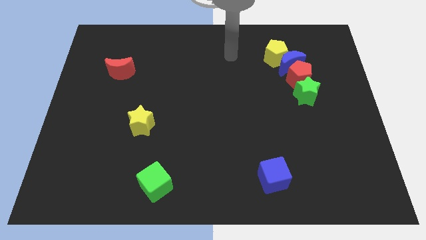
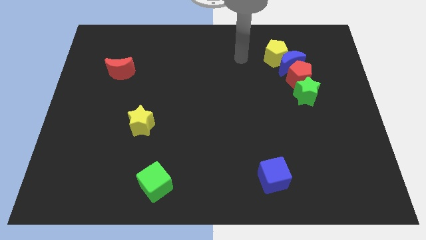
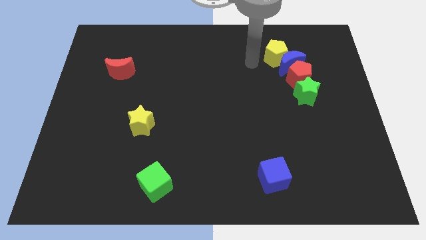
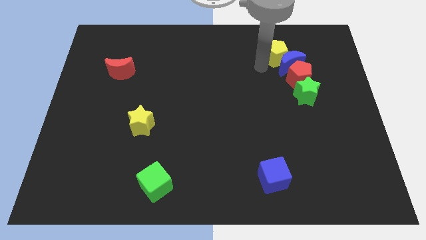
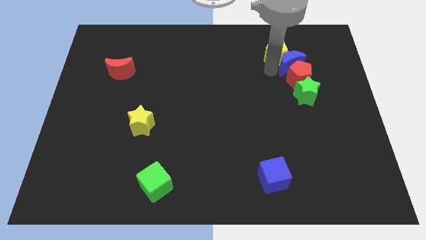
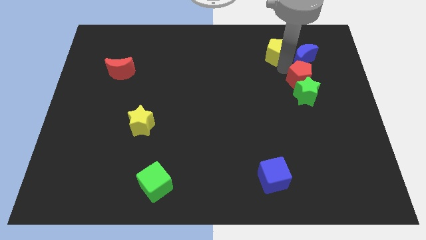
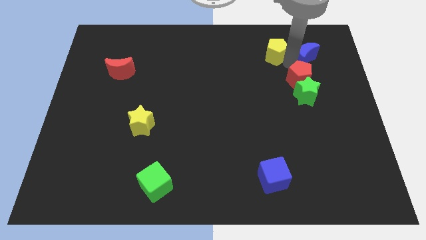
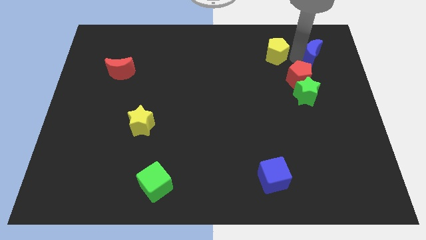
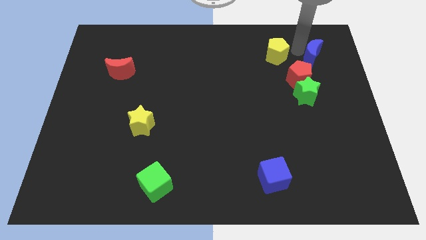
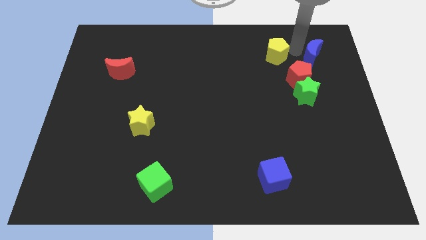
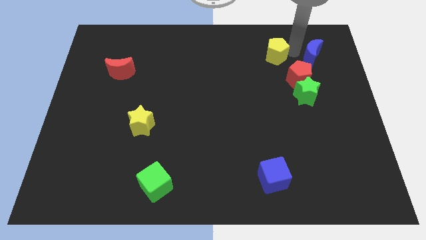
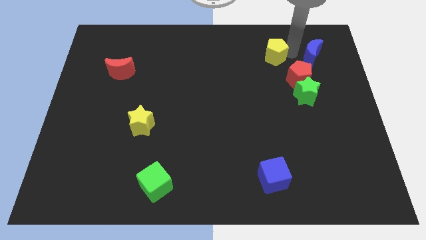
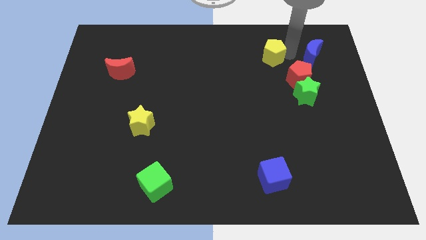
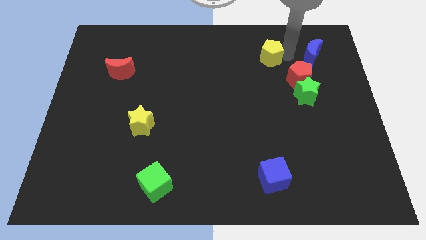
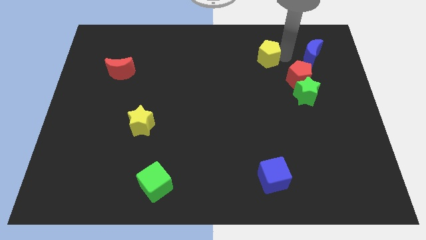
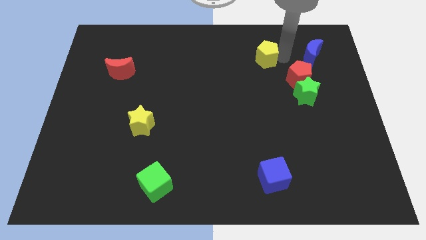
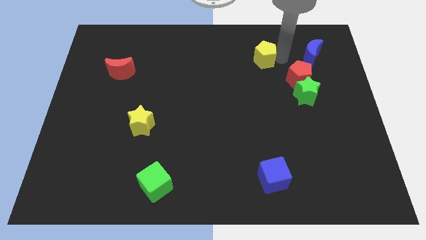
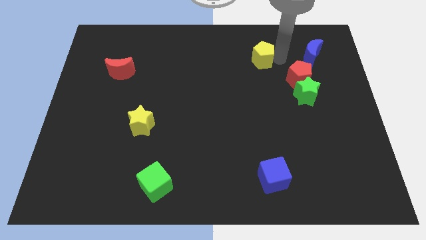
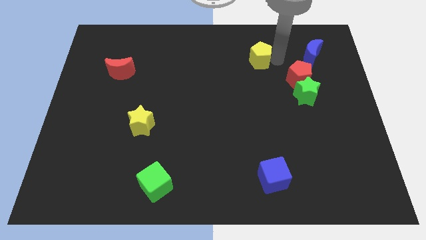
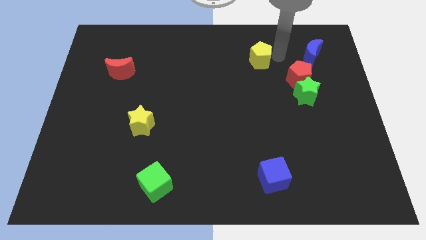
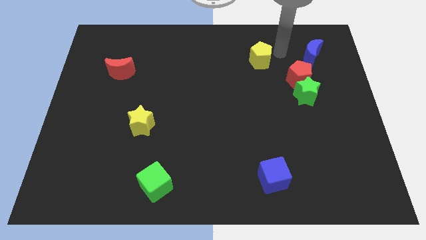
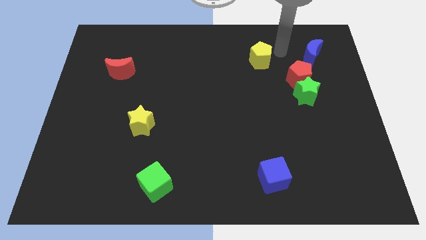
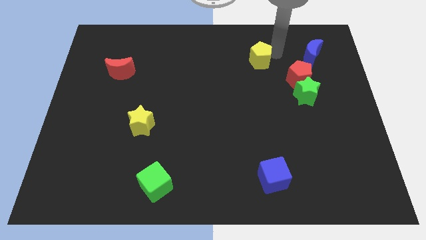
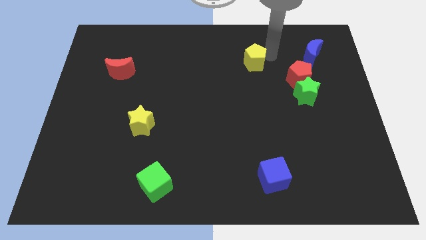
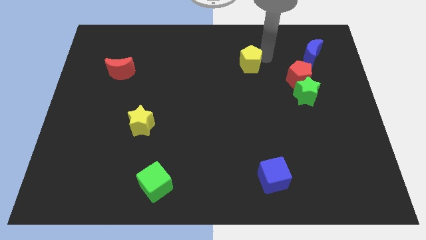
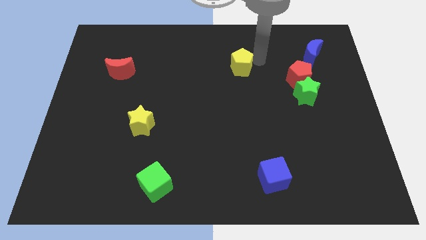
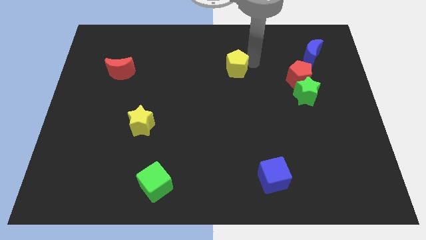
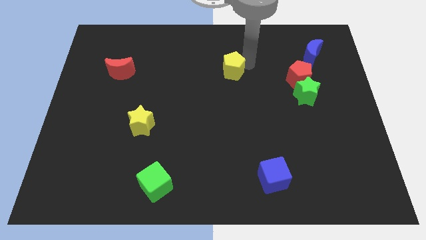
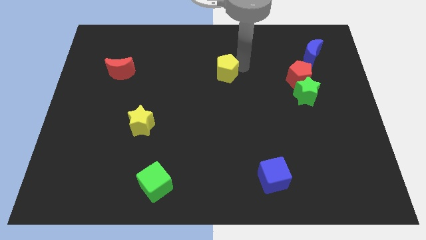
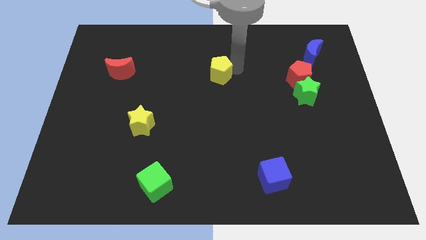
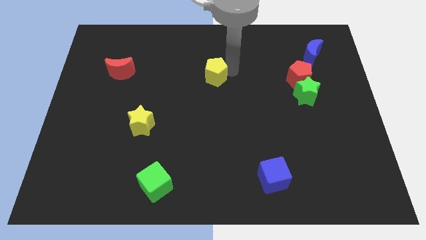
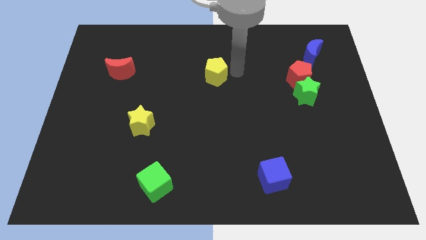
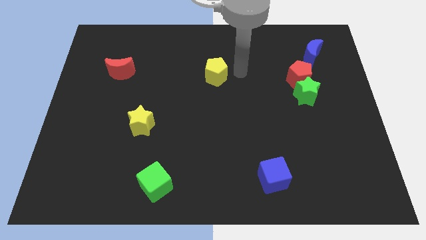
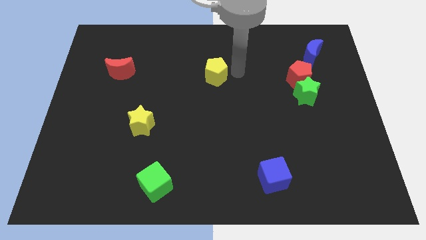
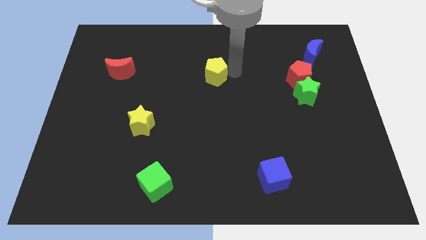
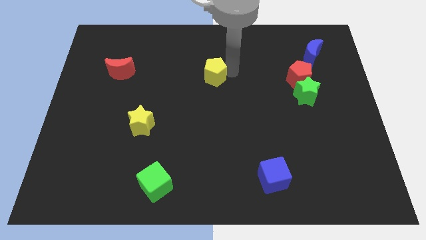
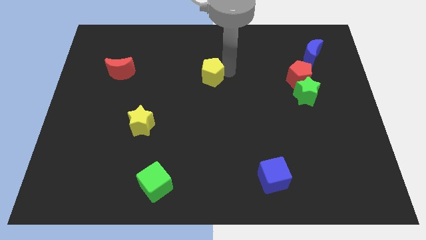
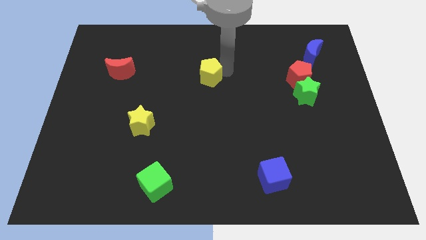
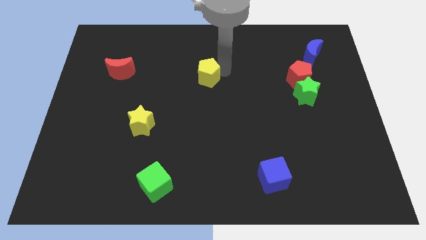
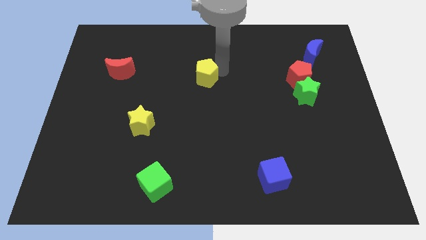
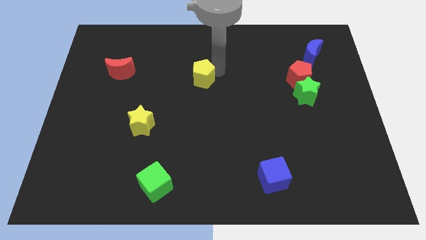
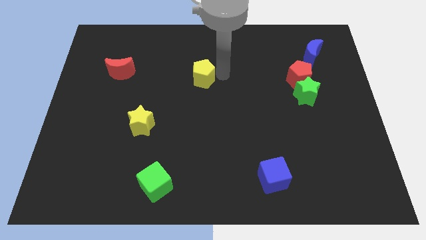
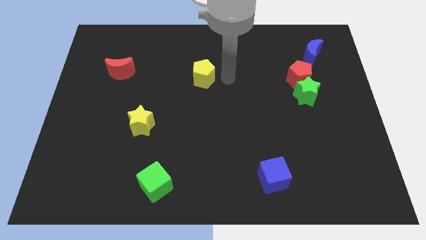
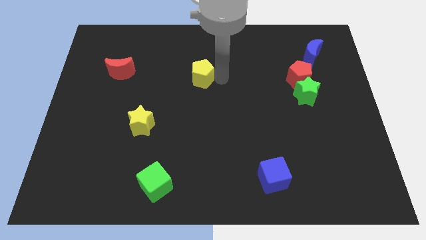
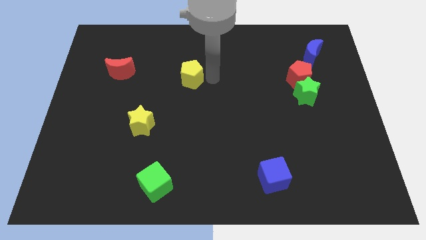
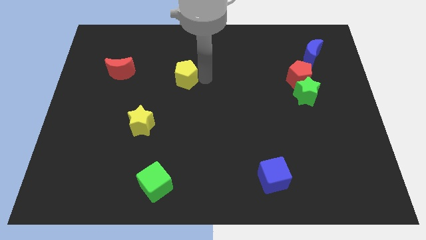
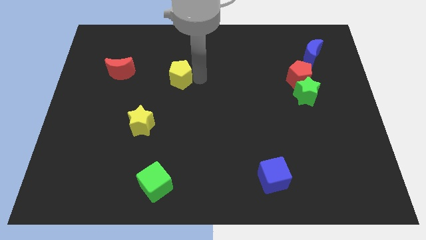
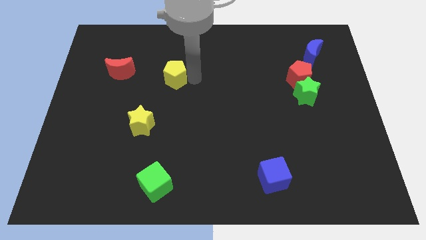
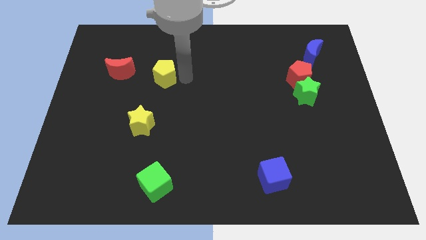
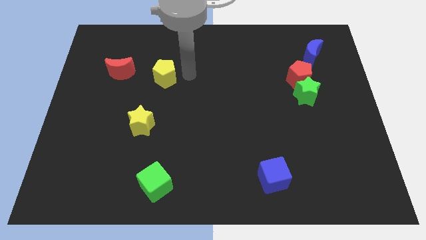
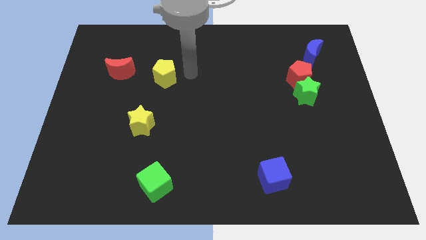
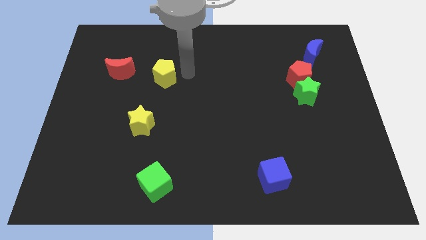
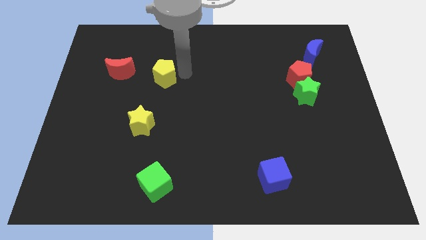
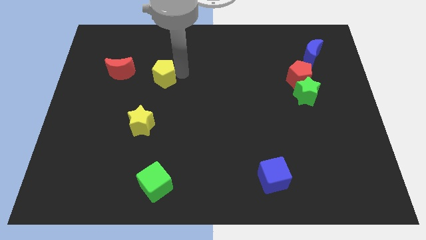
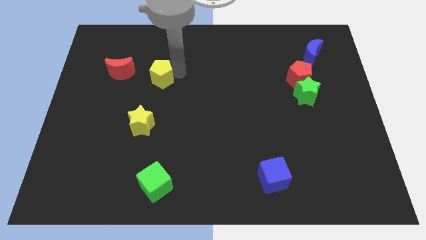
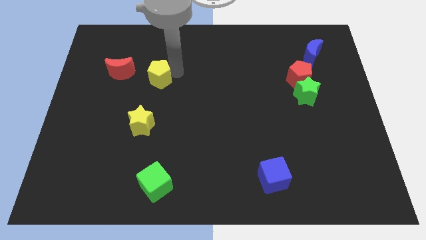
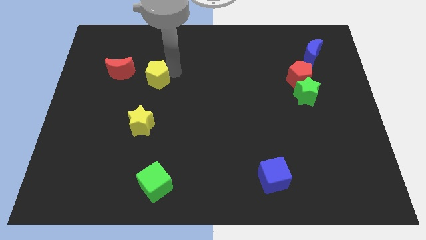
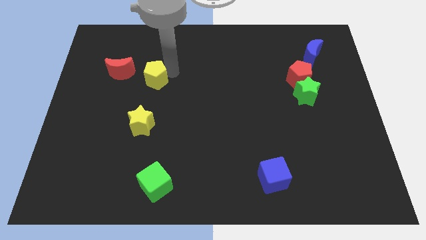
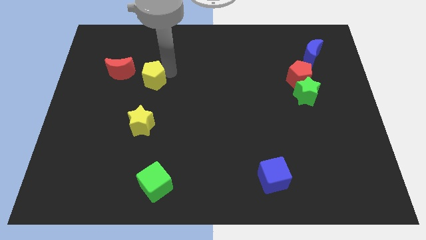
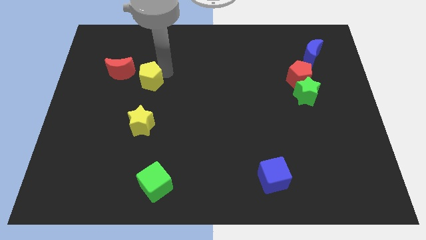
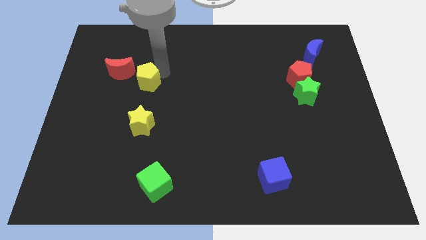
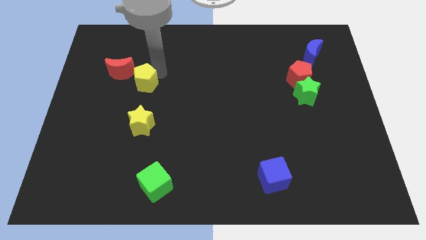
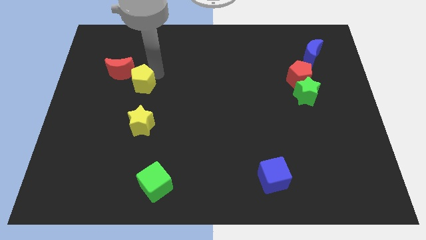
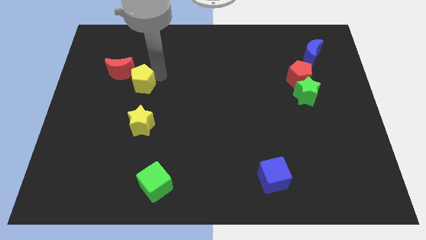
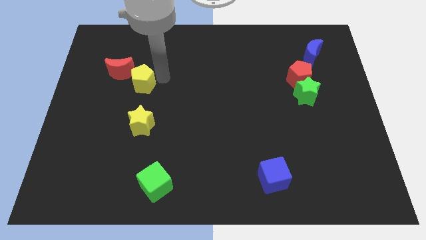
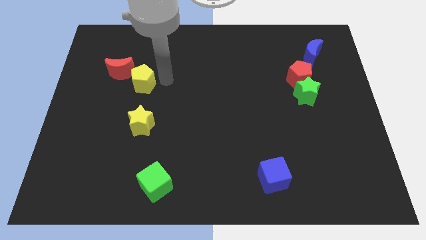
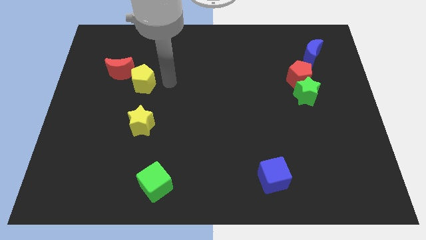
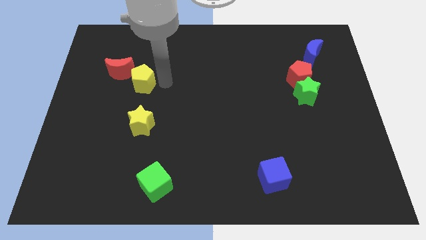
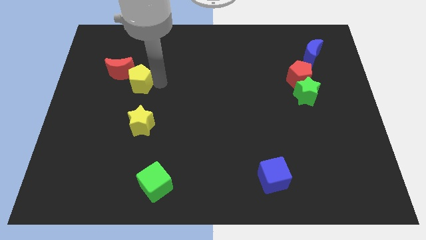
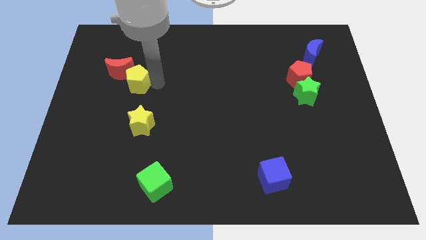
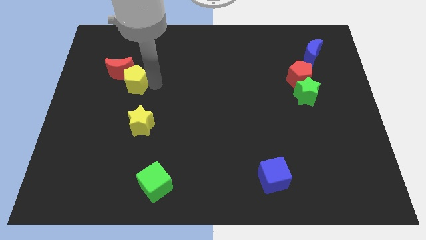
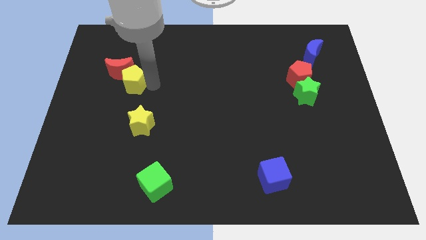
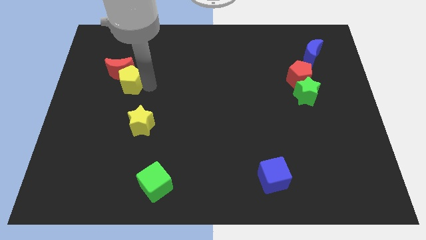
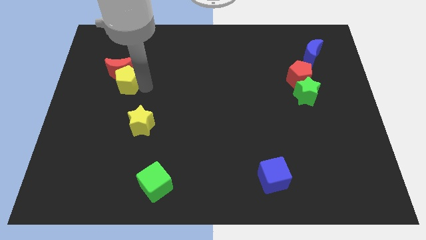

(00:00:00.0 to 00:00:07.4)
push the yellow pentagon diagonally down and to the left of the red moon

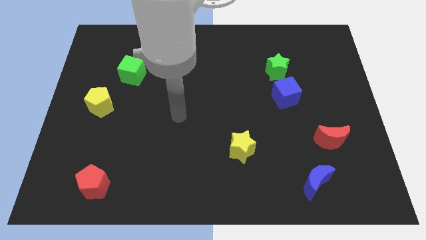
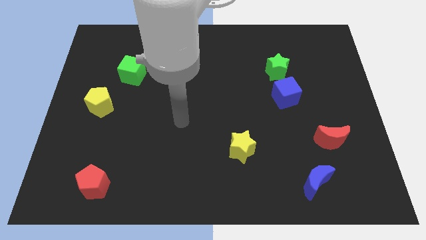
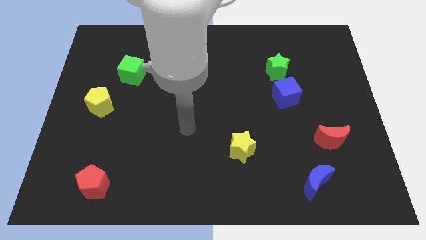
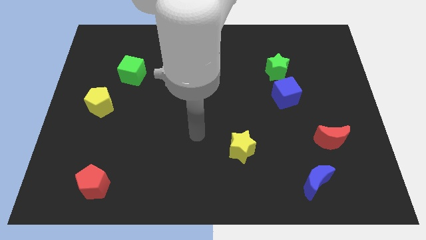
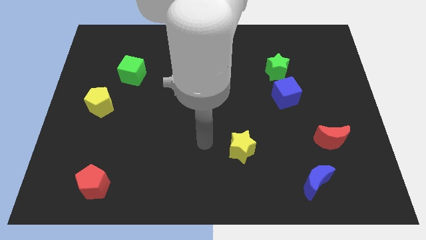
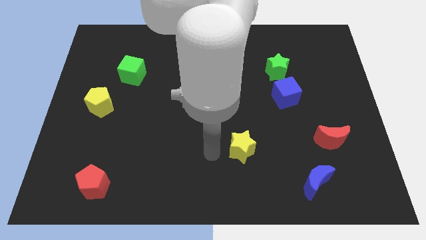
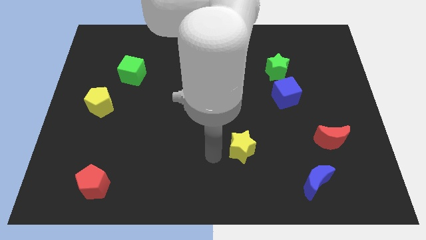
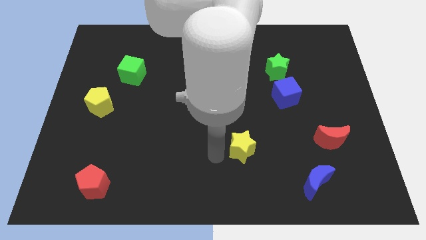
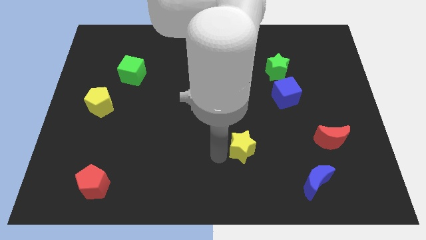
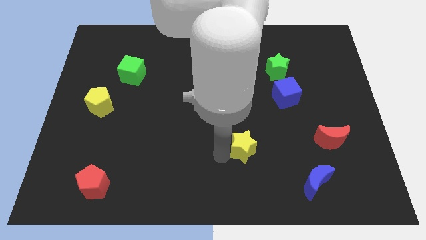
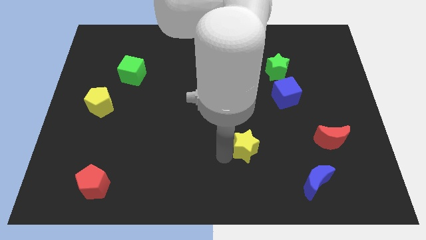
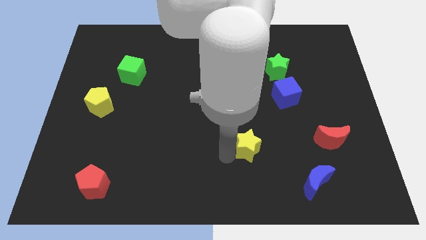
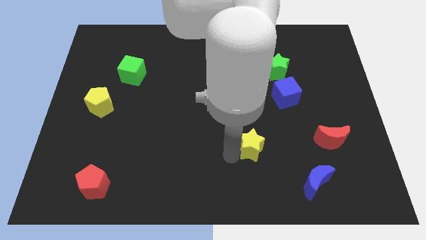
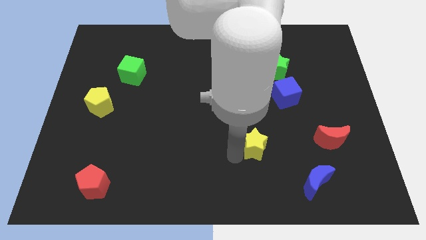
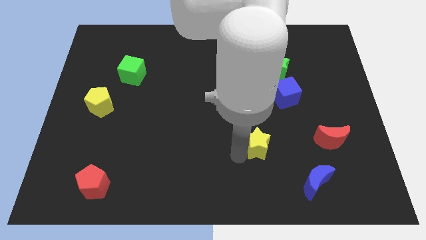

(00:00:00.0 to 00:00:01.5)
push the yellow star left of the red moon
